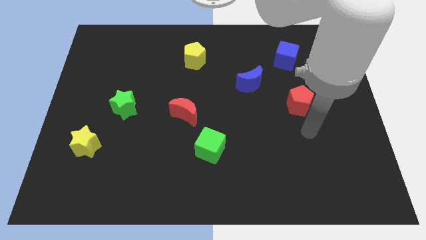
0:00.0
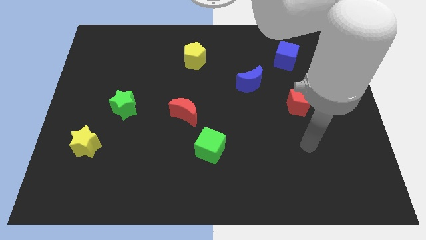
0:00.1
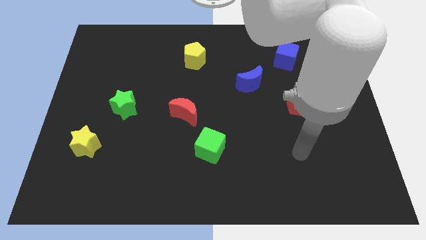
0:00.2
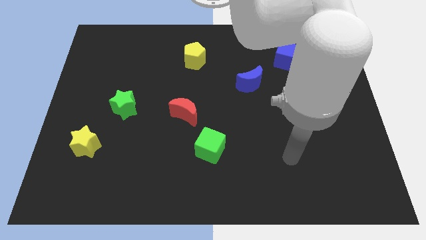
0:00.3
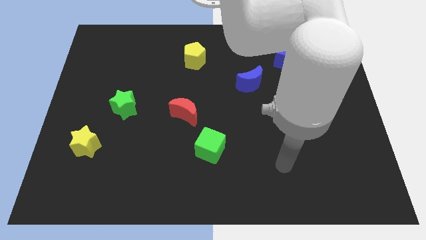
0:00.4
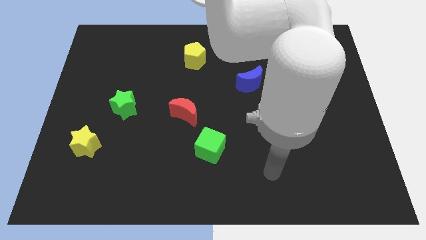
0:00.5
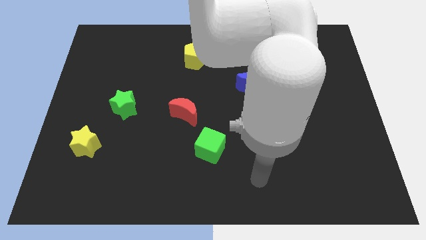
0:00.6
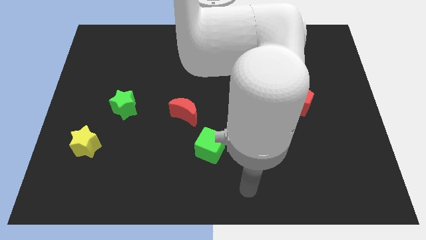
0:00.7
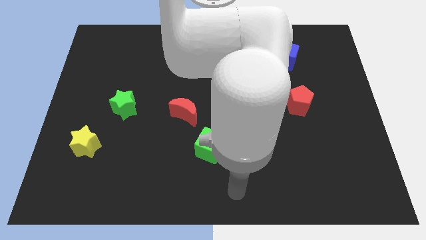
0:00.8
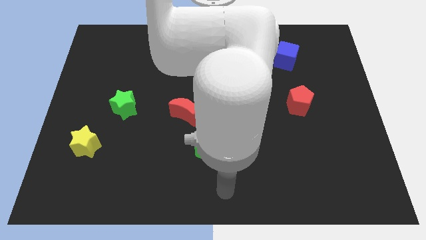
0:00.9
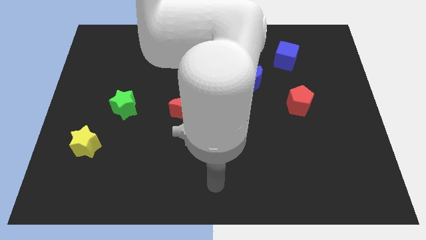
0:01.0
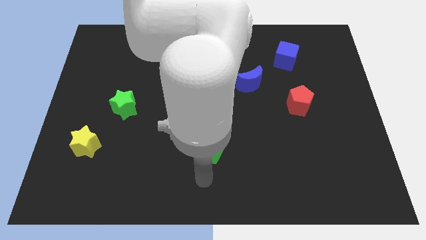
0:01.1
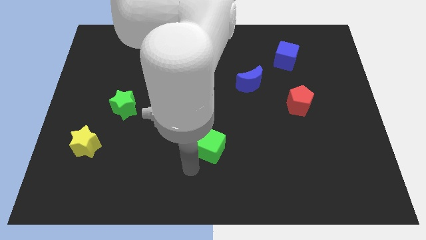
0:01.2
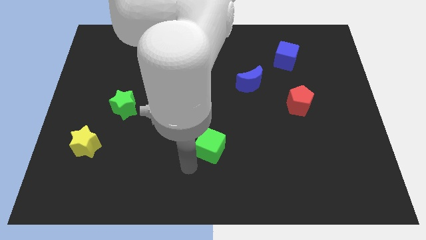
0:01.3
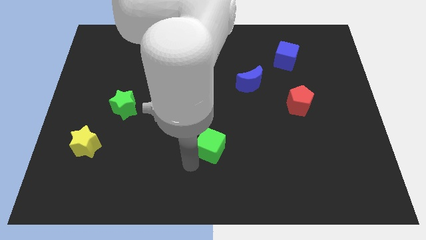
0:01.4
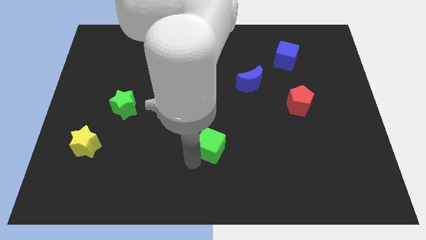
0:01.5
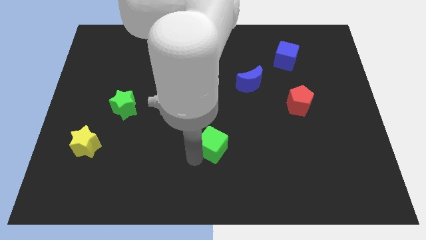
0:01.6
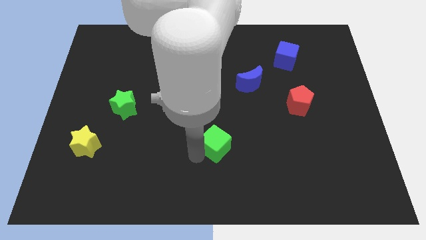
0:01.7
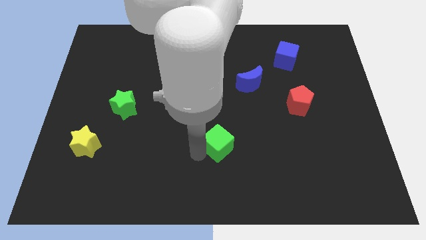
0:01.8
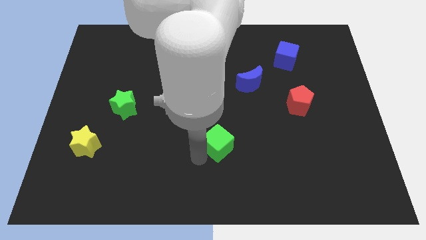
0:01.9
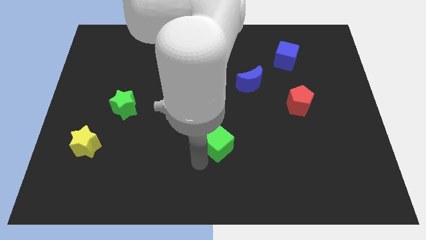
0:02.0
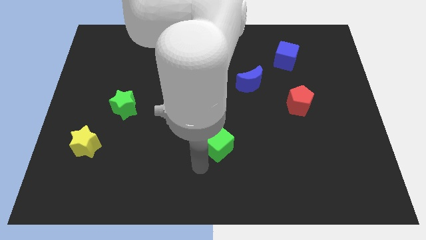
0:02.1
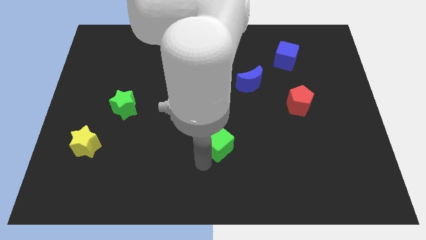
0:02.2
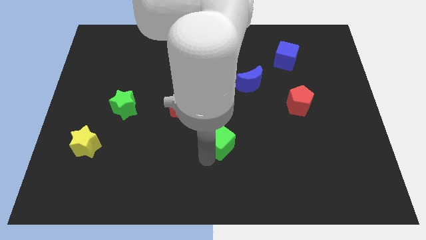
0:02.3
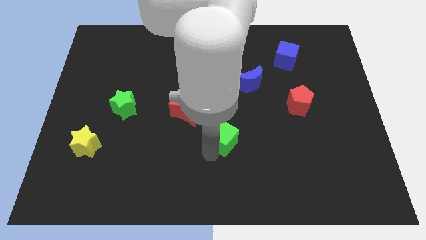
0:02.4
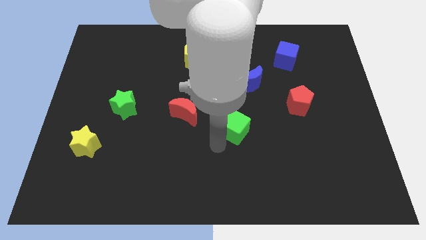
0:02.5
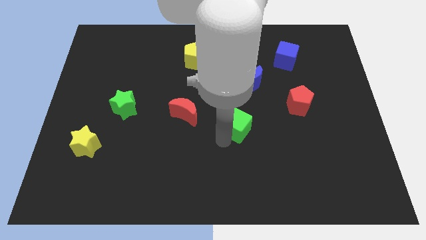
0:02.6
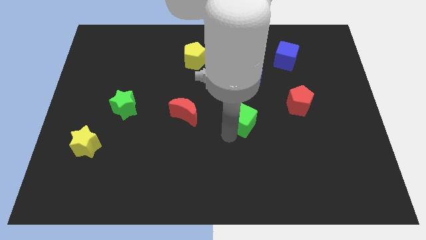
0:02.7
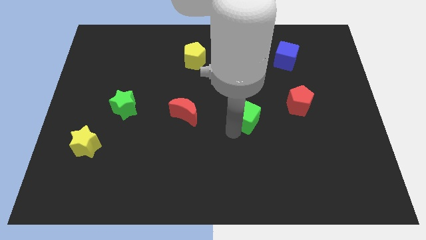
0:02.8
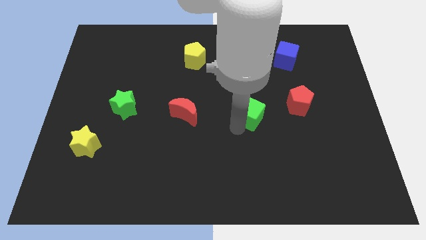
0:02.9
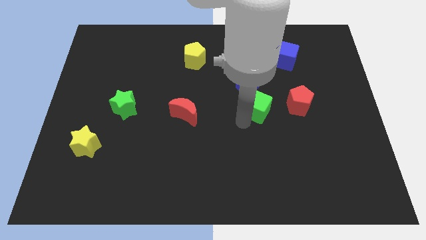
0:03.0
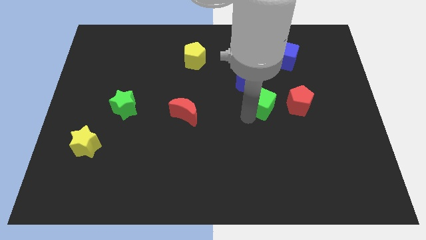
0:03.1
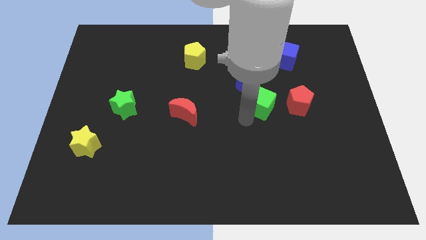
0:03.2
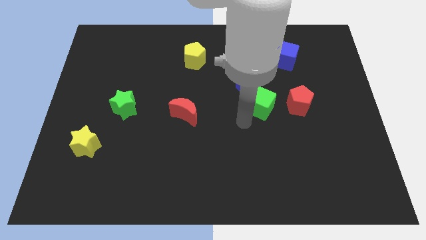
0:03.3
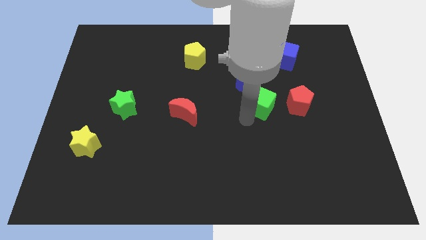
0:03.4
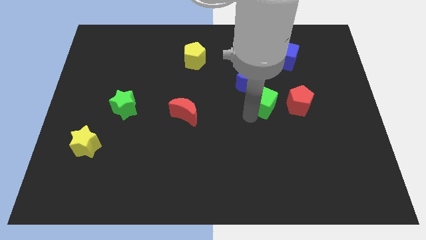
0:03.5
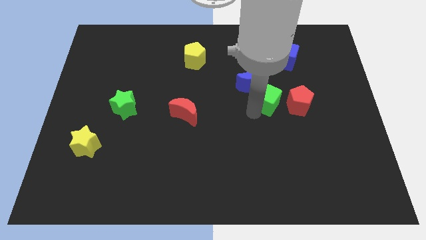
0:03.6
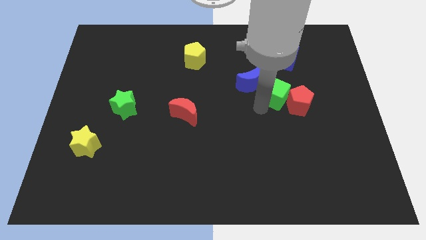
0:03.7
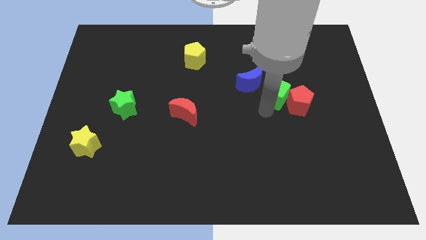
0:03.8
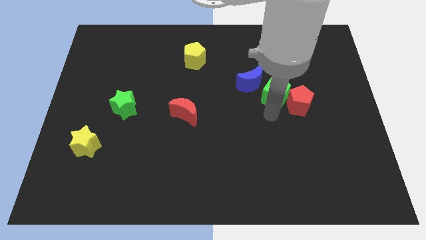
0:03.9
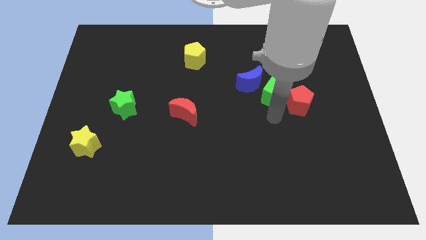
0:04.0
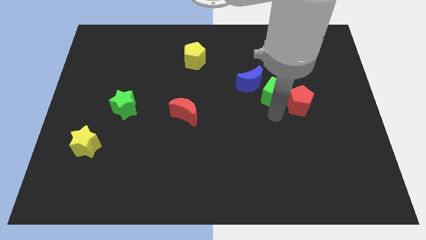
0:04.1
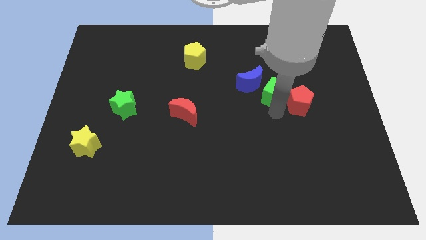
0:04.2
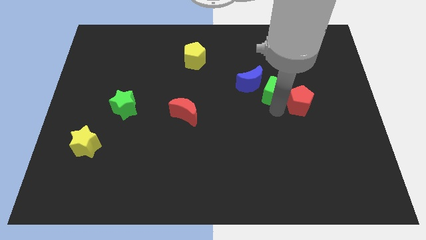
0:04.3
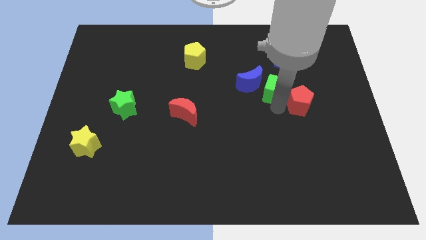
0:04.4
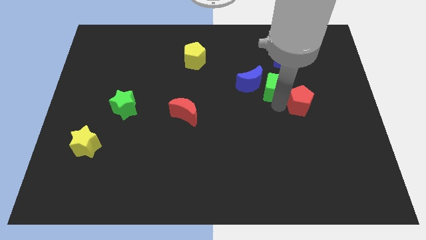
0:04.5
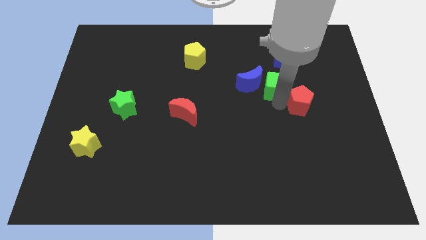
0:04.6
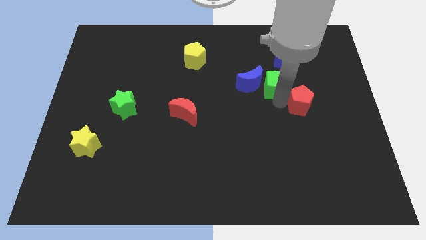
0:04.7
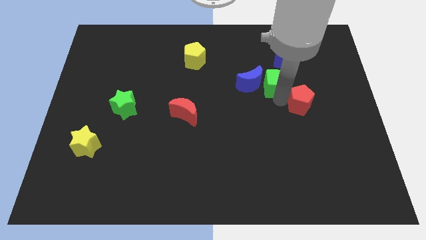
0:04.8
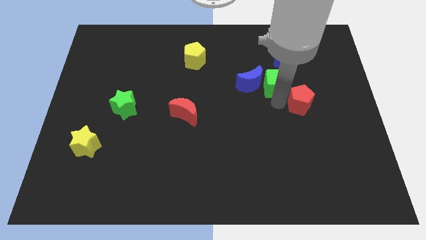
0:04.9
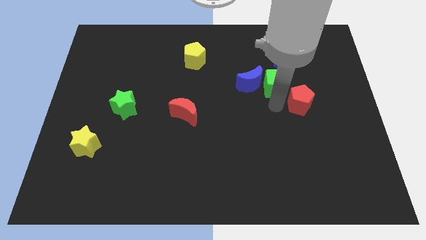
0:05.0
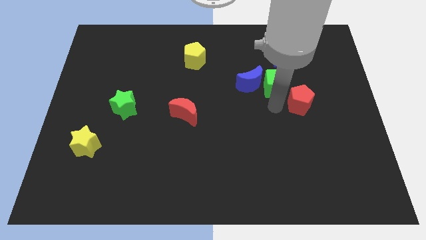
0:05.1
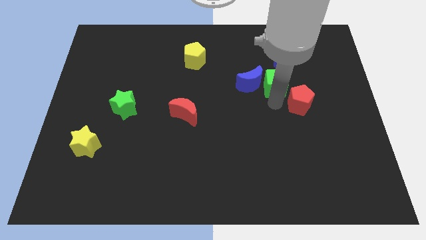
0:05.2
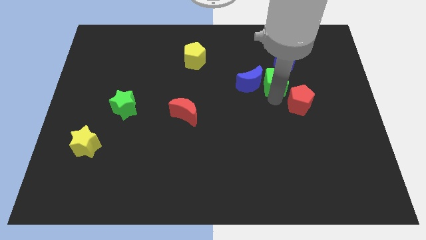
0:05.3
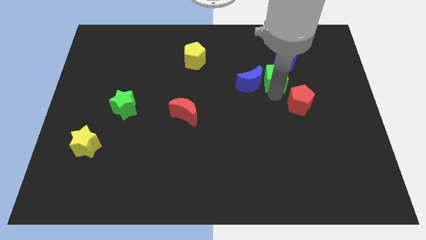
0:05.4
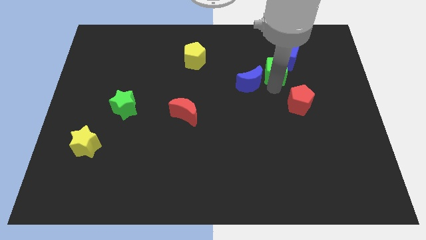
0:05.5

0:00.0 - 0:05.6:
slide the green cube next to the blue cube

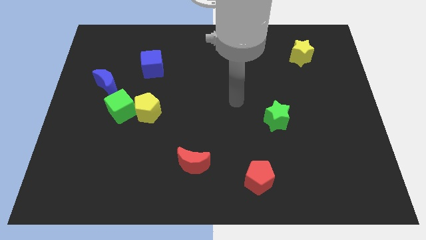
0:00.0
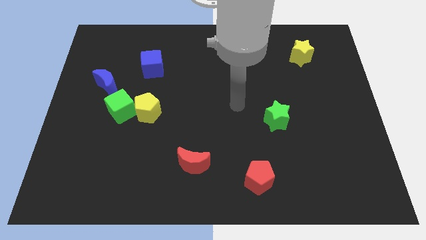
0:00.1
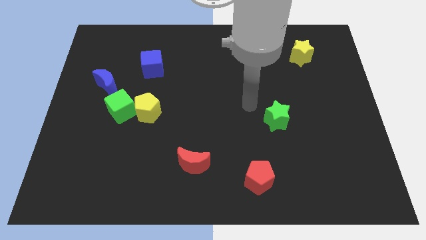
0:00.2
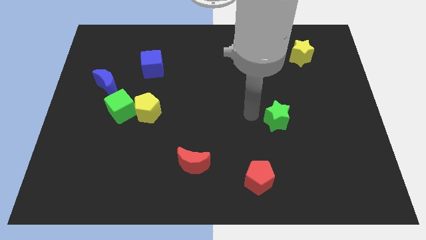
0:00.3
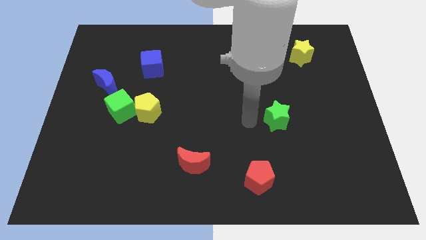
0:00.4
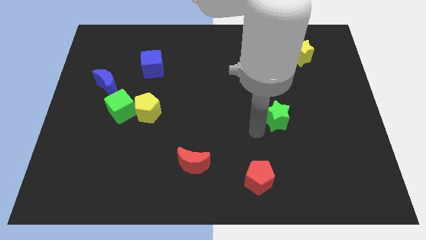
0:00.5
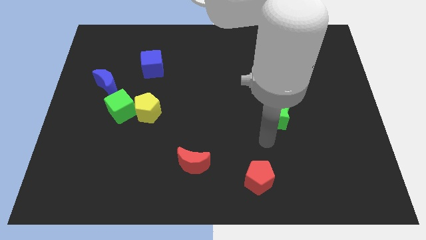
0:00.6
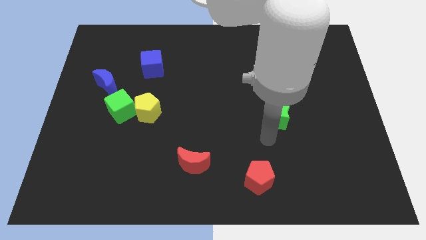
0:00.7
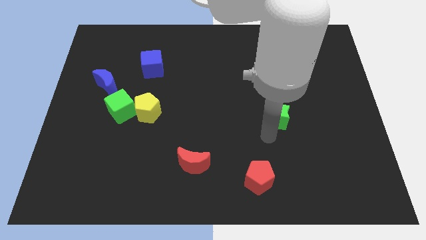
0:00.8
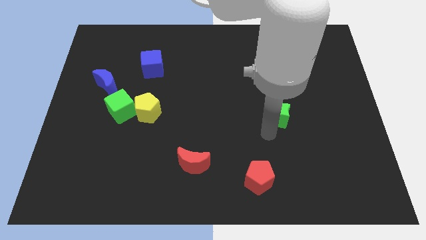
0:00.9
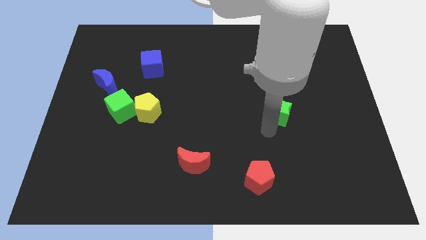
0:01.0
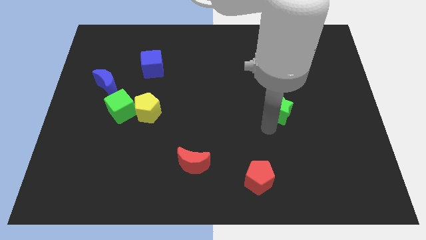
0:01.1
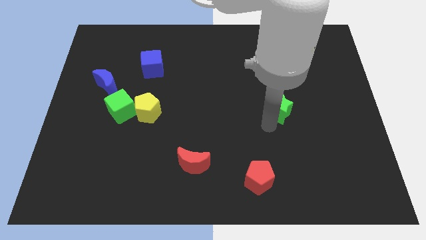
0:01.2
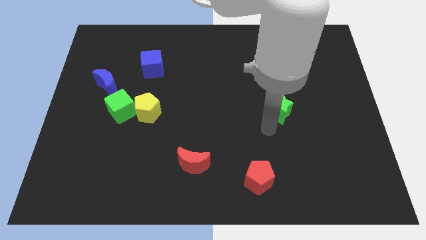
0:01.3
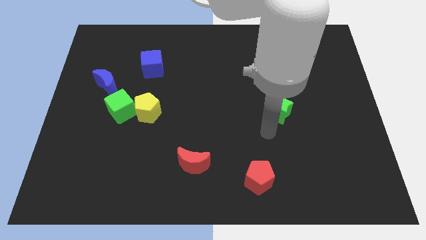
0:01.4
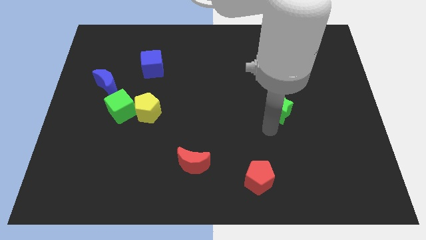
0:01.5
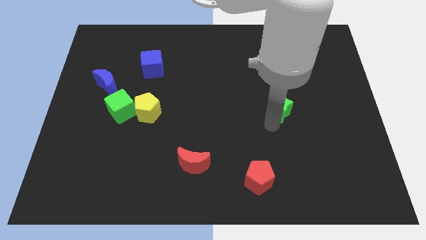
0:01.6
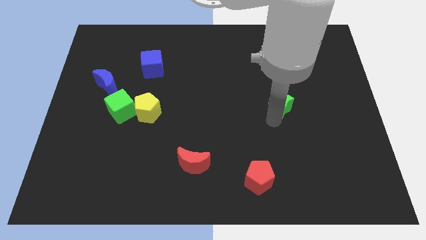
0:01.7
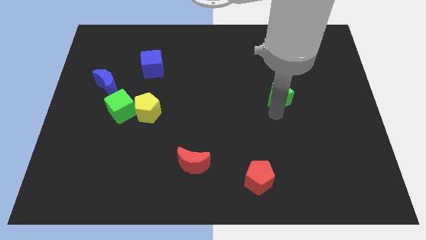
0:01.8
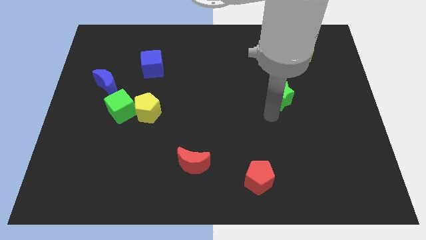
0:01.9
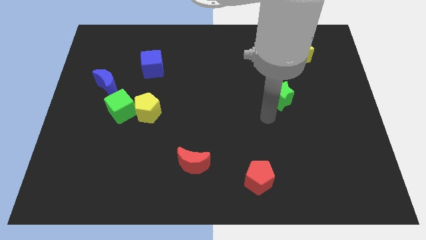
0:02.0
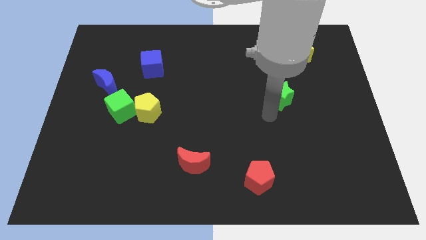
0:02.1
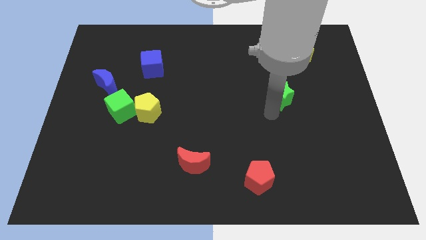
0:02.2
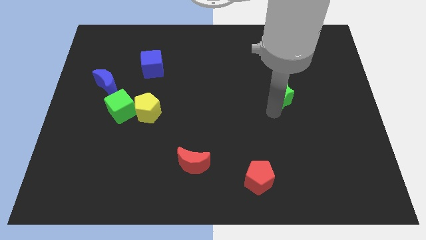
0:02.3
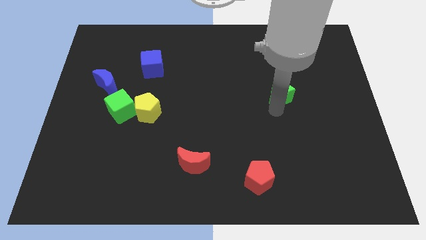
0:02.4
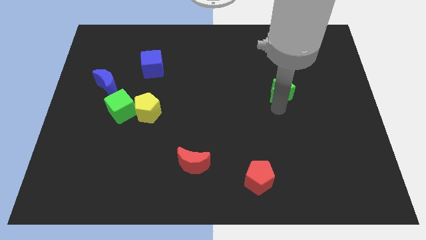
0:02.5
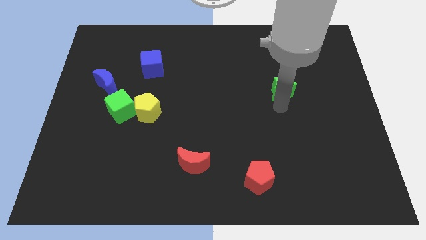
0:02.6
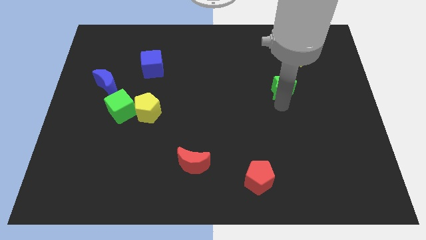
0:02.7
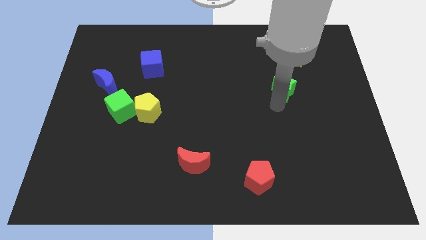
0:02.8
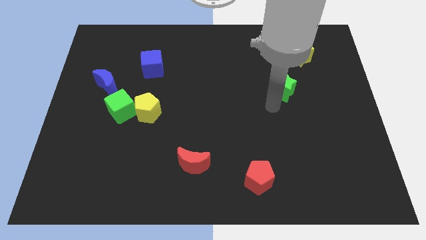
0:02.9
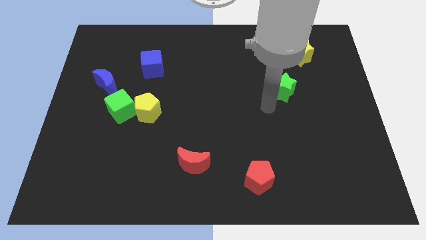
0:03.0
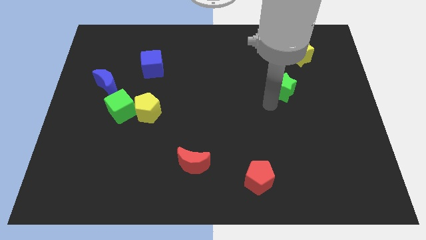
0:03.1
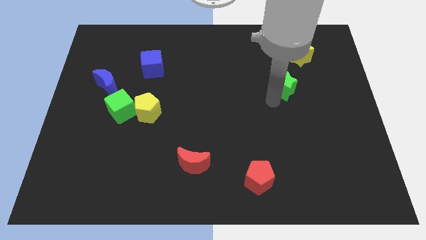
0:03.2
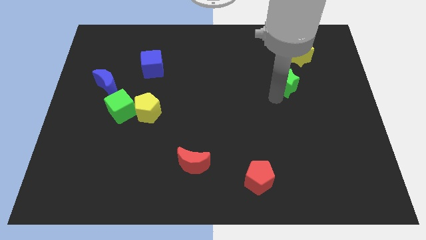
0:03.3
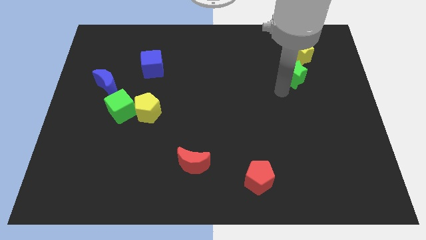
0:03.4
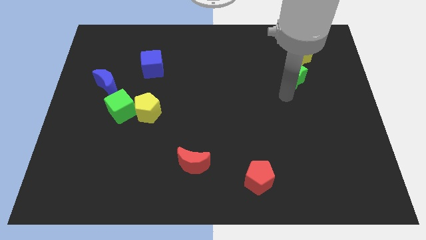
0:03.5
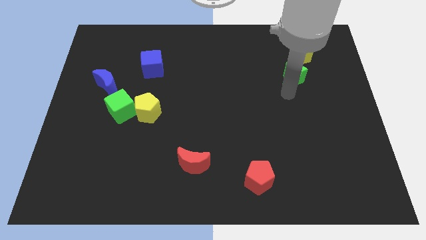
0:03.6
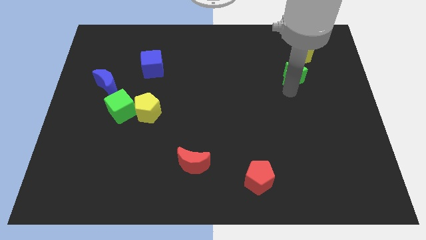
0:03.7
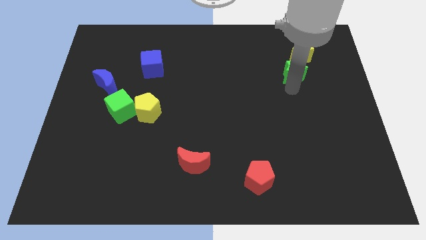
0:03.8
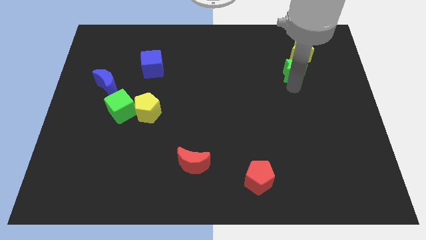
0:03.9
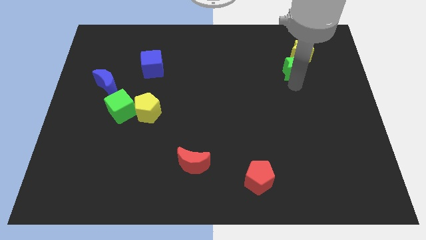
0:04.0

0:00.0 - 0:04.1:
put the green star towards the yellow star
